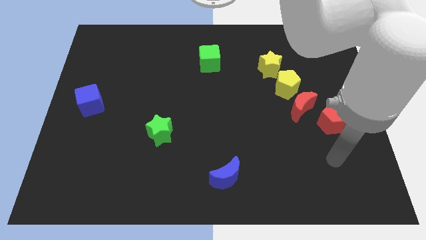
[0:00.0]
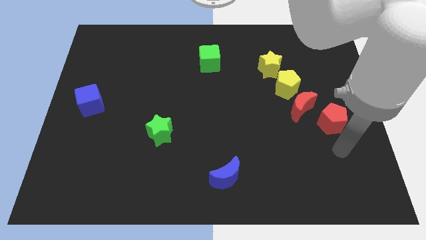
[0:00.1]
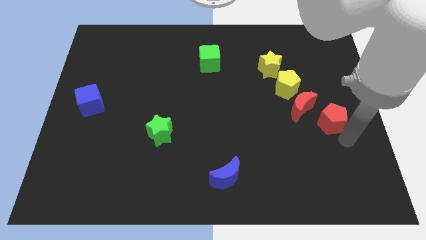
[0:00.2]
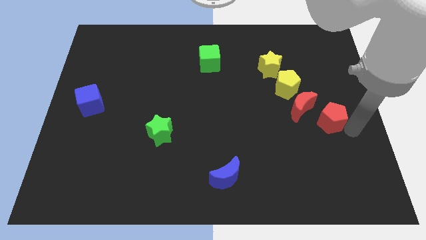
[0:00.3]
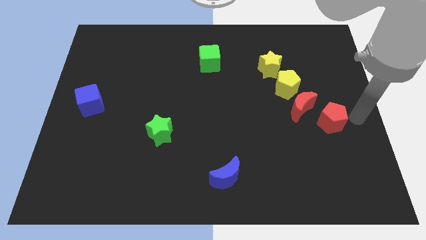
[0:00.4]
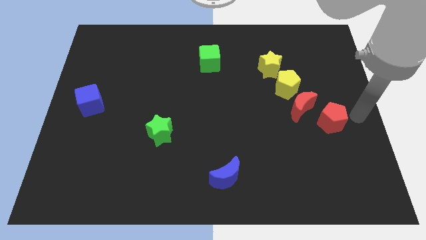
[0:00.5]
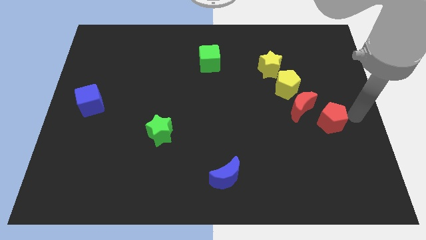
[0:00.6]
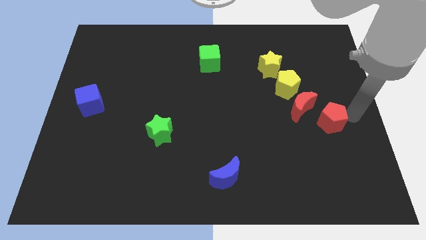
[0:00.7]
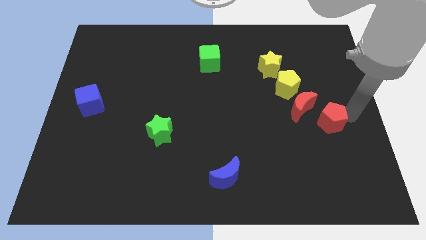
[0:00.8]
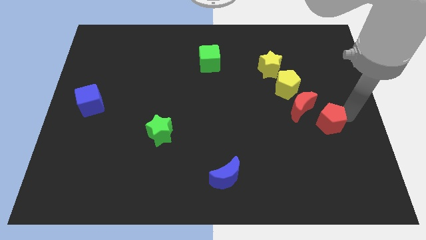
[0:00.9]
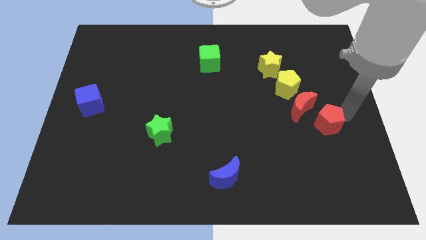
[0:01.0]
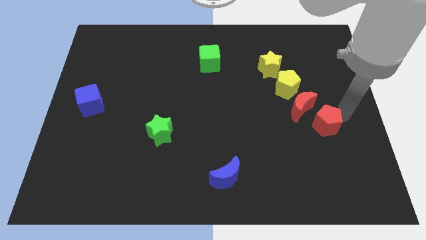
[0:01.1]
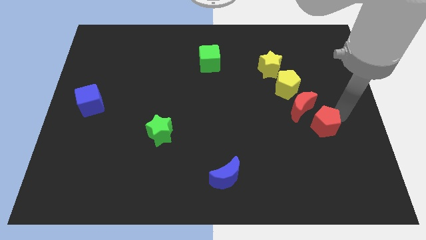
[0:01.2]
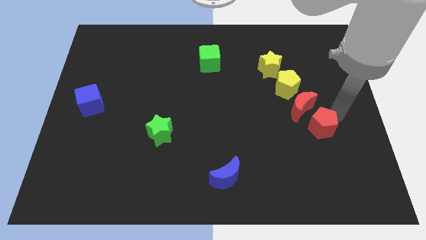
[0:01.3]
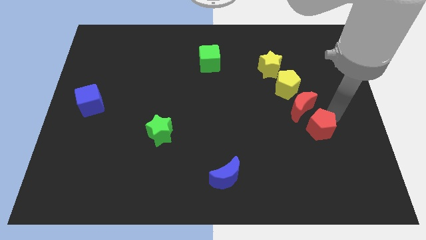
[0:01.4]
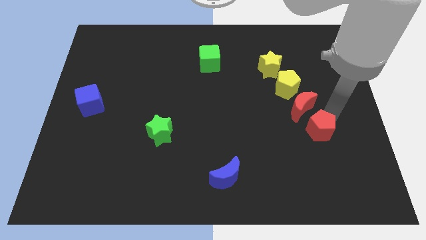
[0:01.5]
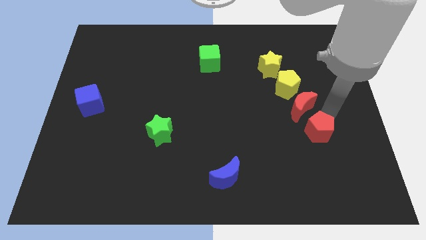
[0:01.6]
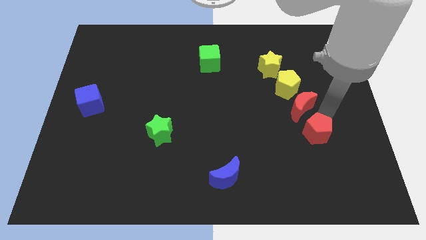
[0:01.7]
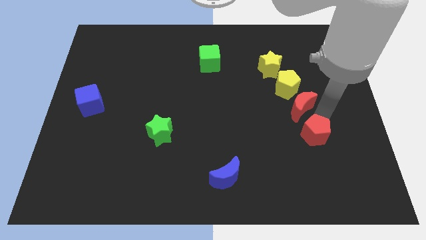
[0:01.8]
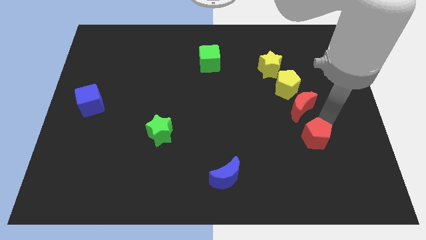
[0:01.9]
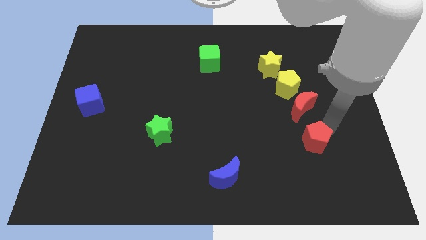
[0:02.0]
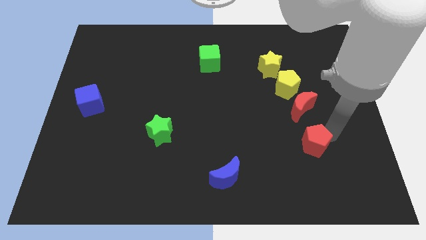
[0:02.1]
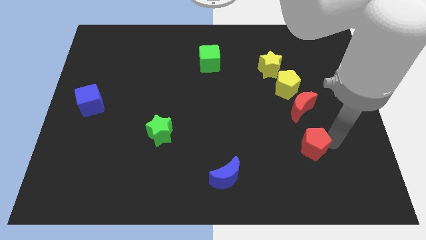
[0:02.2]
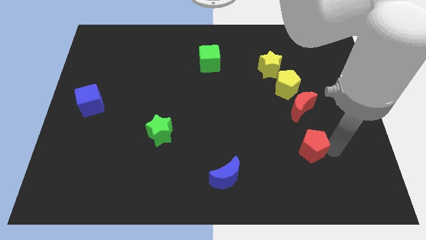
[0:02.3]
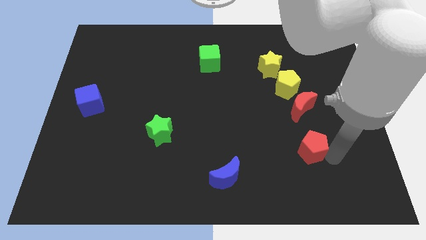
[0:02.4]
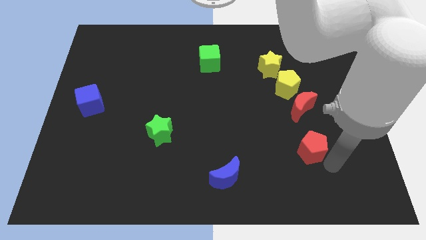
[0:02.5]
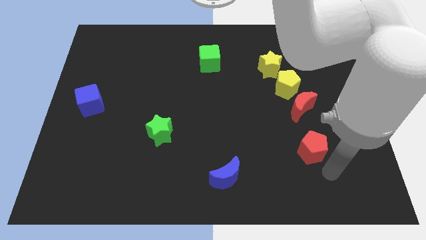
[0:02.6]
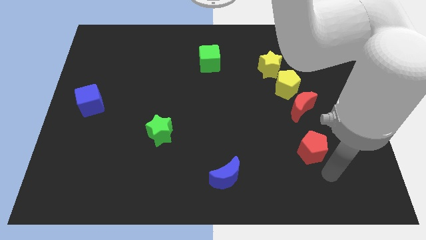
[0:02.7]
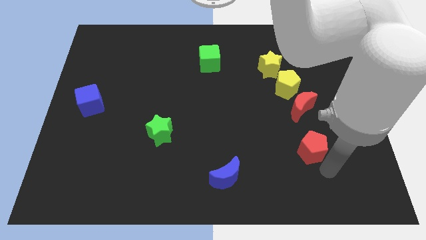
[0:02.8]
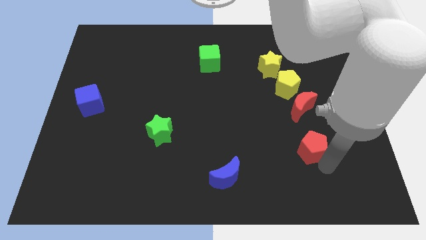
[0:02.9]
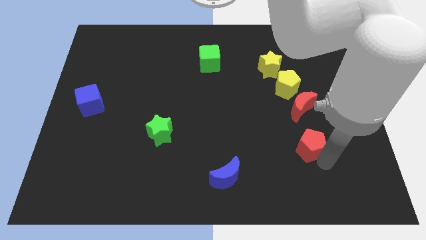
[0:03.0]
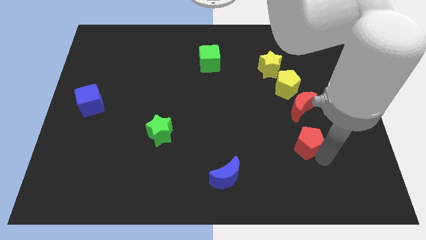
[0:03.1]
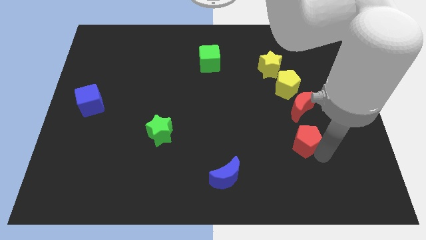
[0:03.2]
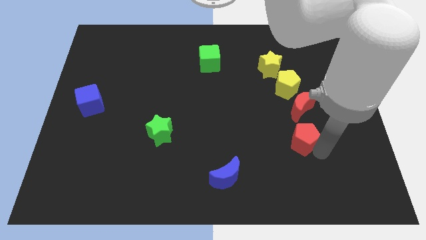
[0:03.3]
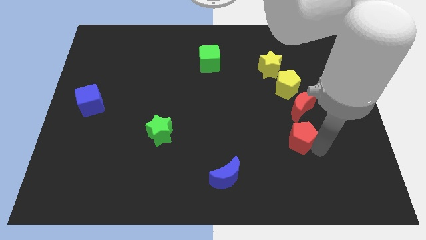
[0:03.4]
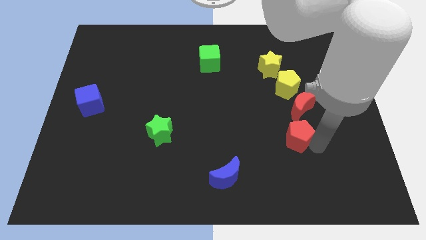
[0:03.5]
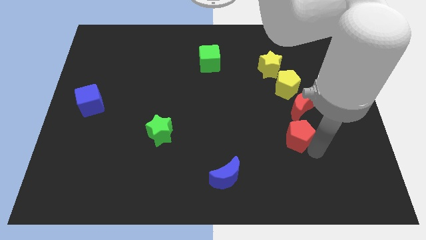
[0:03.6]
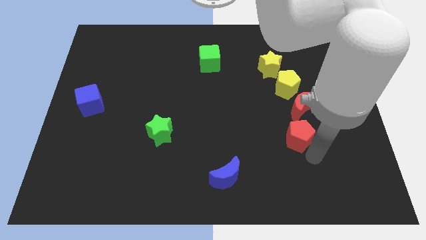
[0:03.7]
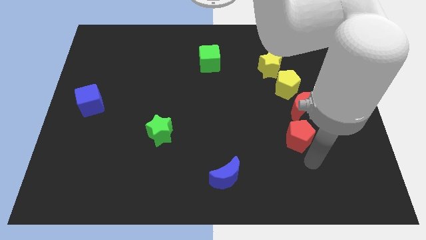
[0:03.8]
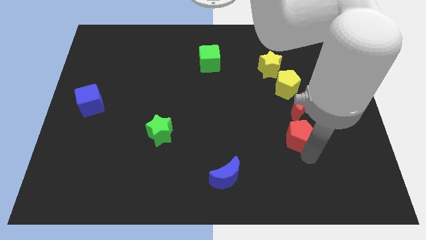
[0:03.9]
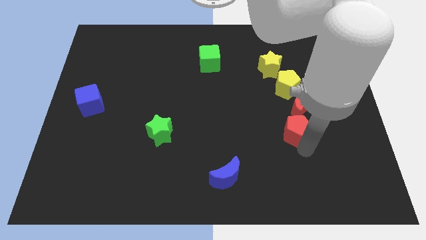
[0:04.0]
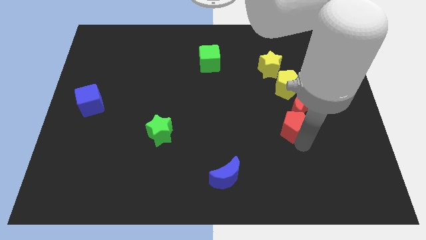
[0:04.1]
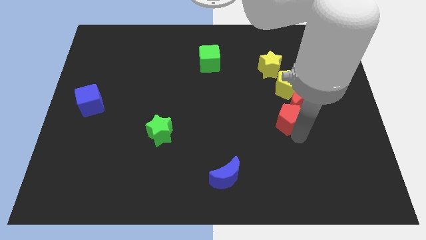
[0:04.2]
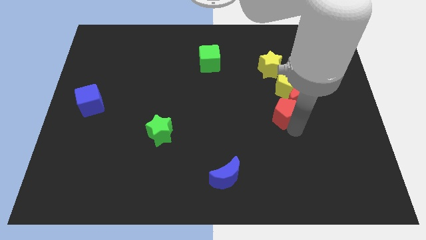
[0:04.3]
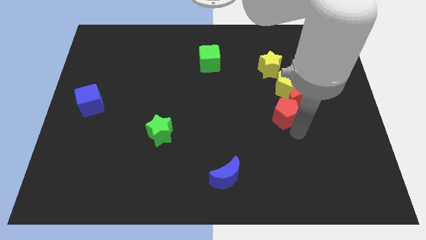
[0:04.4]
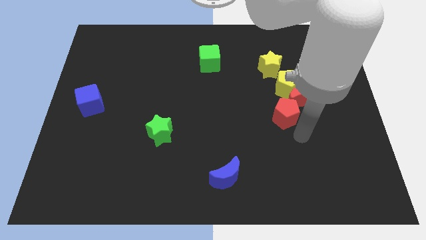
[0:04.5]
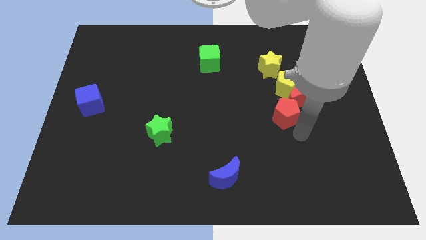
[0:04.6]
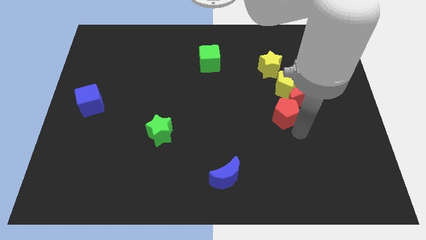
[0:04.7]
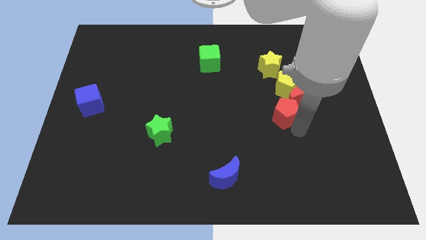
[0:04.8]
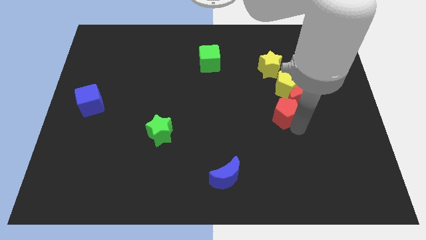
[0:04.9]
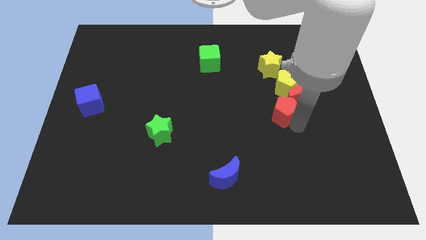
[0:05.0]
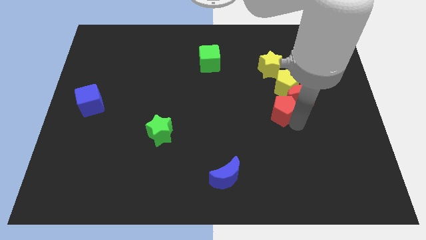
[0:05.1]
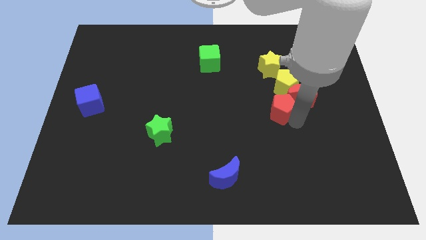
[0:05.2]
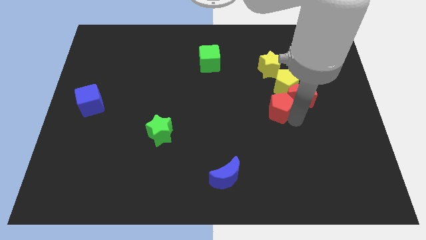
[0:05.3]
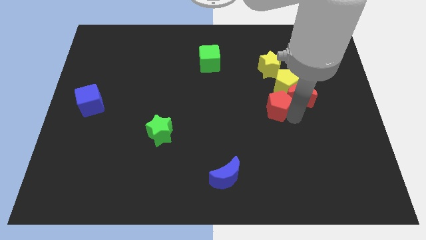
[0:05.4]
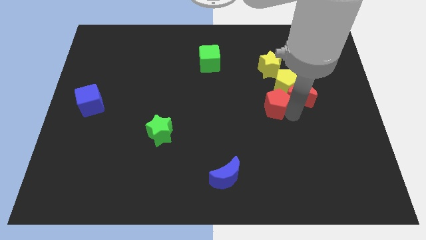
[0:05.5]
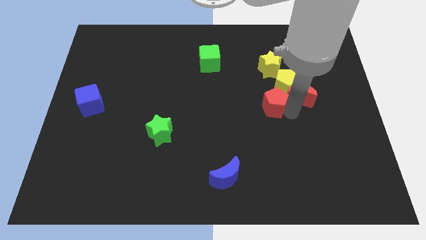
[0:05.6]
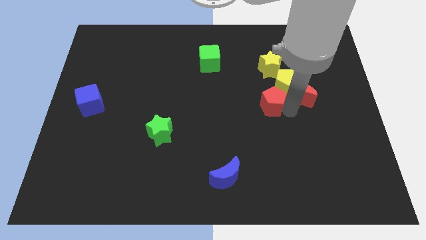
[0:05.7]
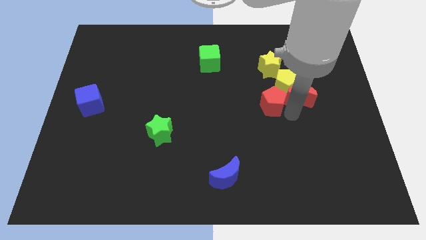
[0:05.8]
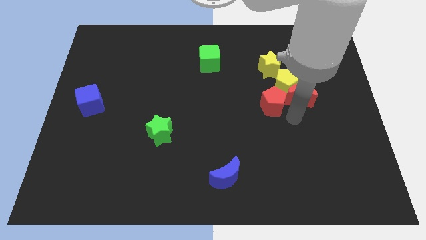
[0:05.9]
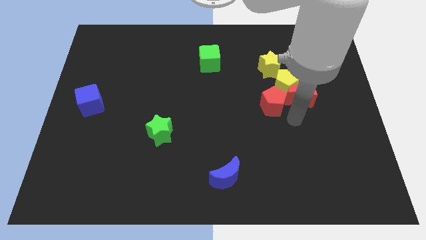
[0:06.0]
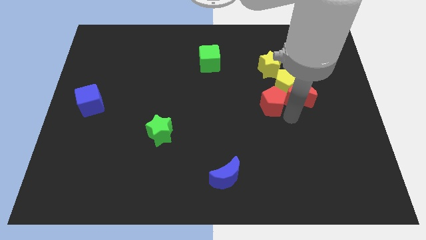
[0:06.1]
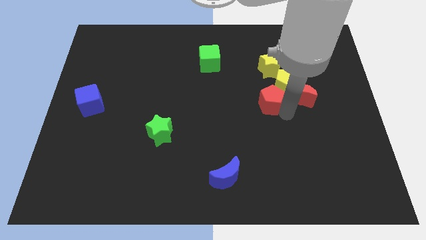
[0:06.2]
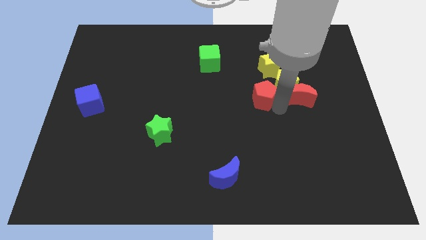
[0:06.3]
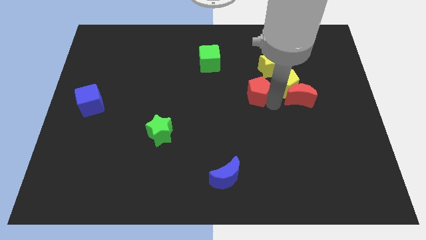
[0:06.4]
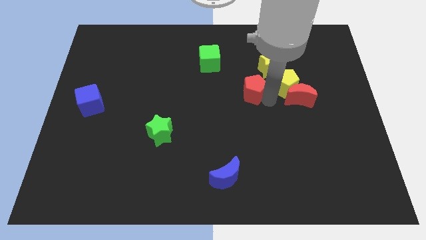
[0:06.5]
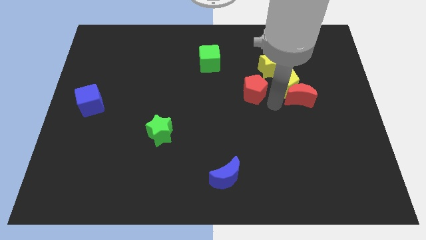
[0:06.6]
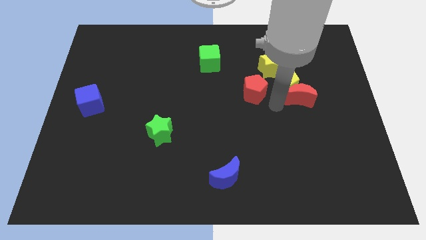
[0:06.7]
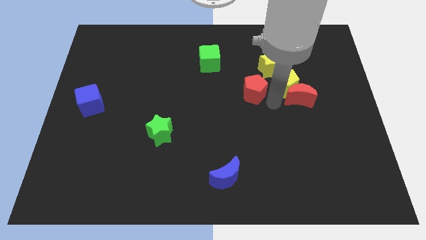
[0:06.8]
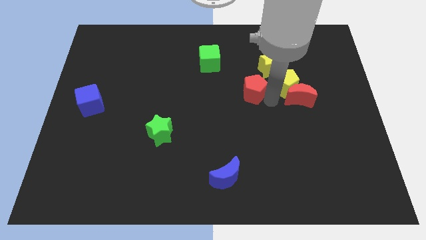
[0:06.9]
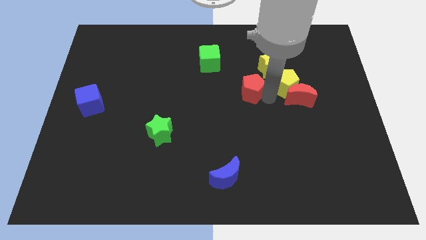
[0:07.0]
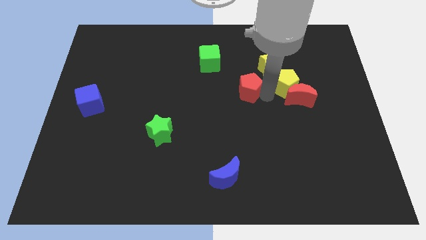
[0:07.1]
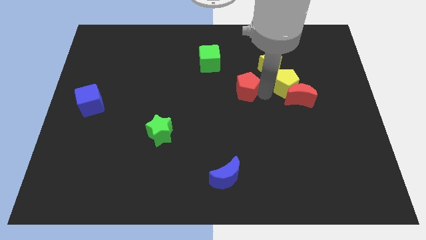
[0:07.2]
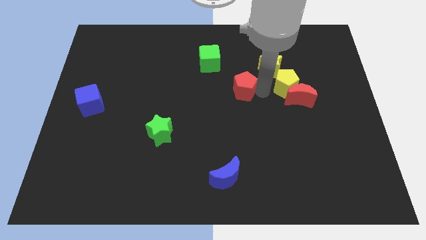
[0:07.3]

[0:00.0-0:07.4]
move the red pentagon to the bottom right of the green cube
